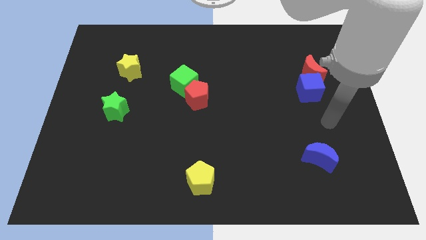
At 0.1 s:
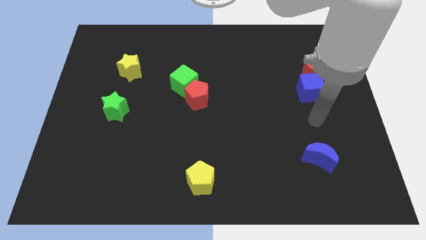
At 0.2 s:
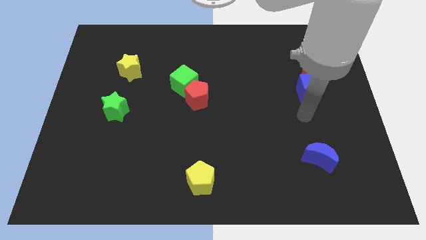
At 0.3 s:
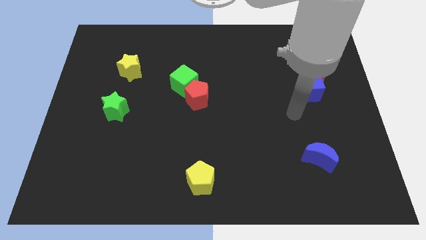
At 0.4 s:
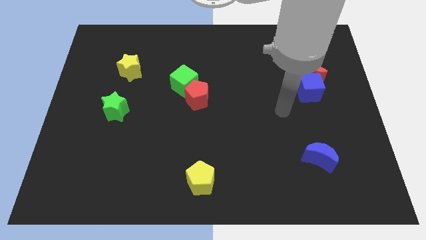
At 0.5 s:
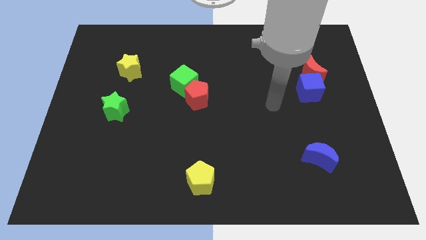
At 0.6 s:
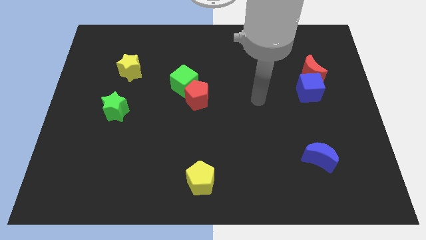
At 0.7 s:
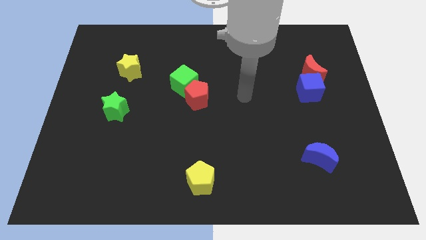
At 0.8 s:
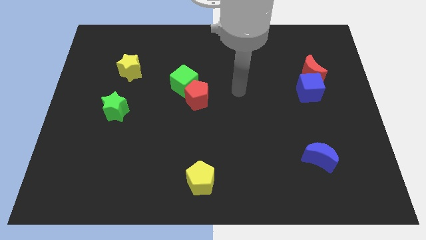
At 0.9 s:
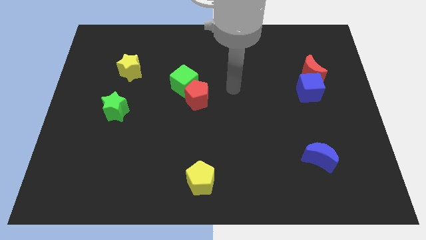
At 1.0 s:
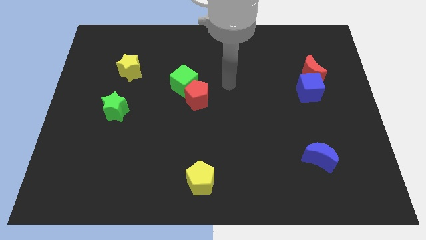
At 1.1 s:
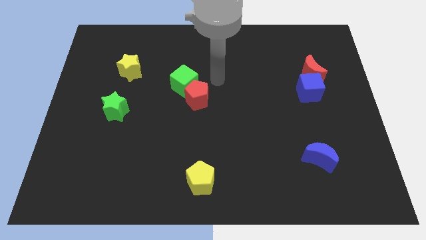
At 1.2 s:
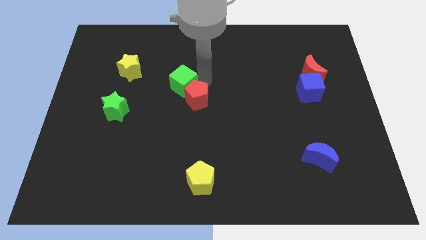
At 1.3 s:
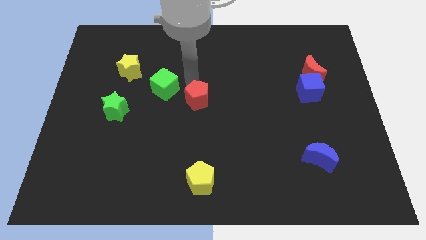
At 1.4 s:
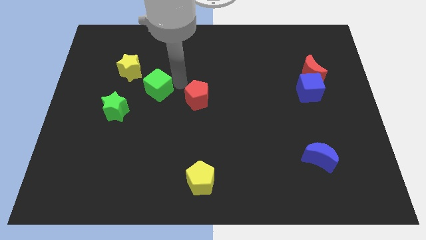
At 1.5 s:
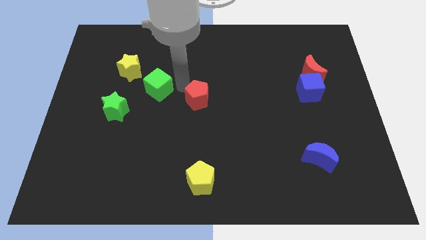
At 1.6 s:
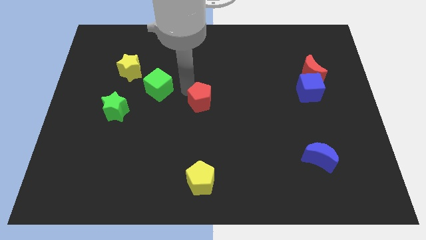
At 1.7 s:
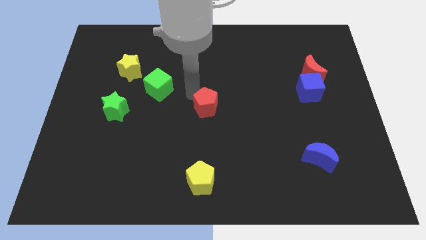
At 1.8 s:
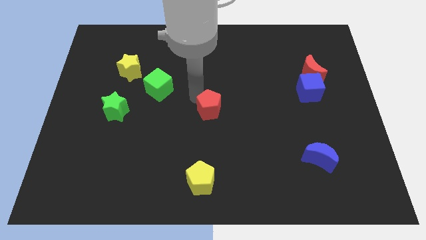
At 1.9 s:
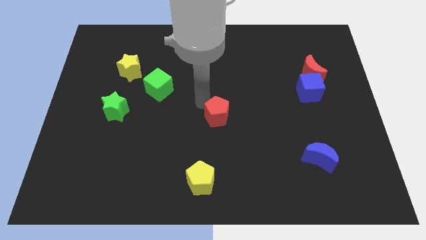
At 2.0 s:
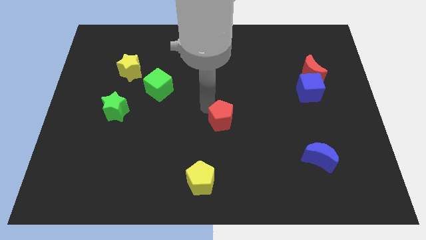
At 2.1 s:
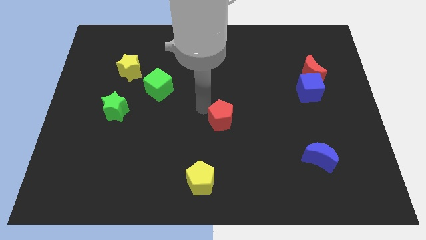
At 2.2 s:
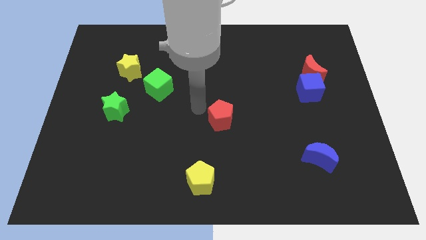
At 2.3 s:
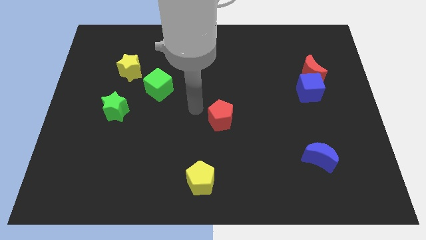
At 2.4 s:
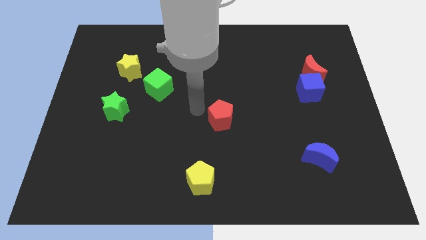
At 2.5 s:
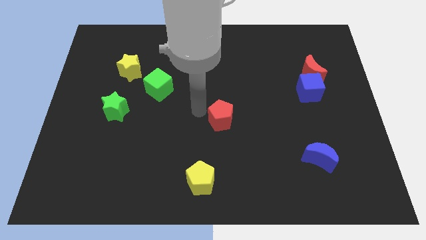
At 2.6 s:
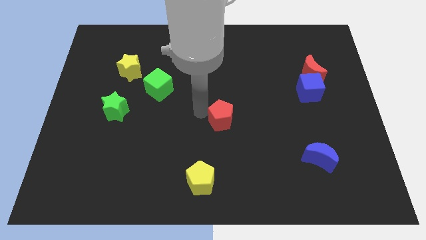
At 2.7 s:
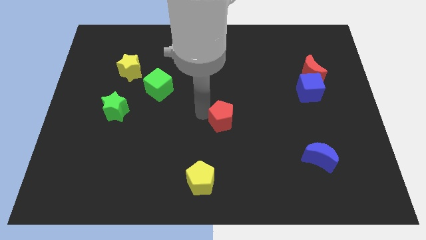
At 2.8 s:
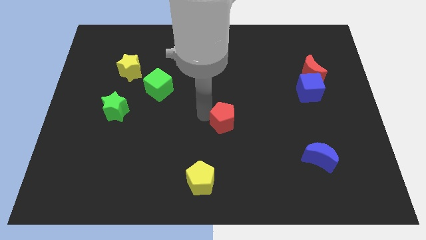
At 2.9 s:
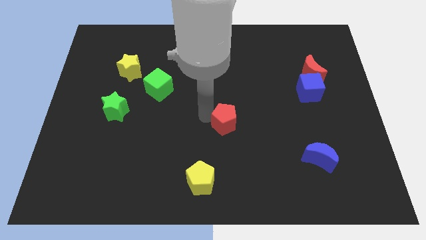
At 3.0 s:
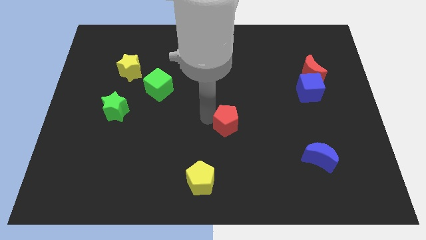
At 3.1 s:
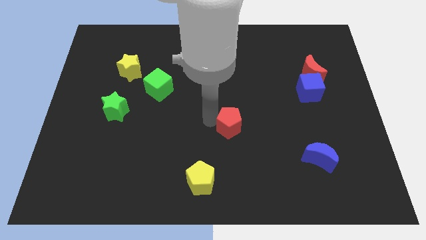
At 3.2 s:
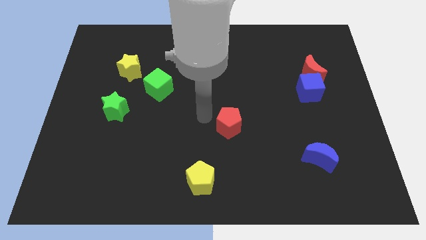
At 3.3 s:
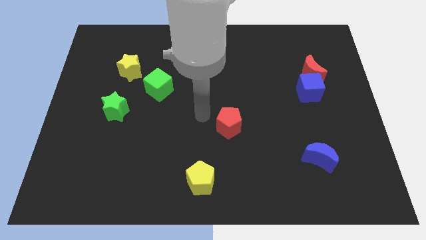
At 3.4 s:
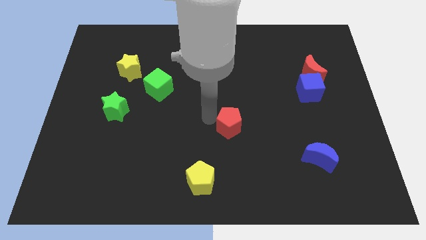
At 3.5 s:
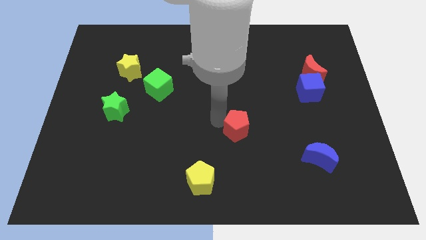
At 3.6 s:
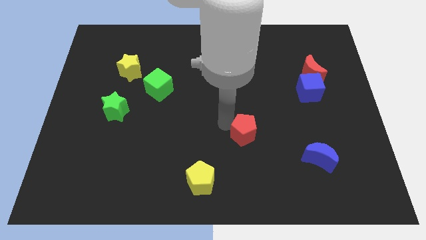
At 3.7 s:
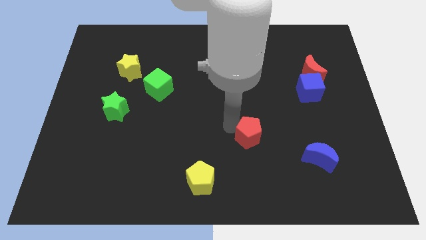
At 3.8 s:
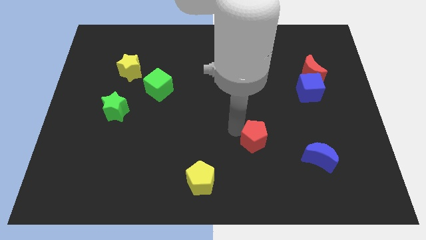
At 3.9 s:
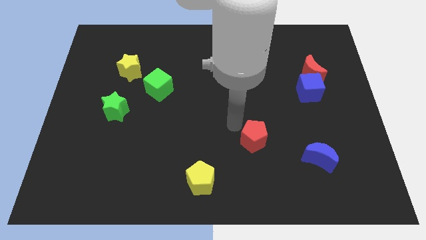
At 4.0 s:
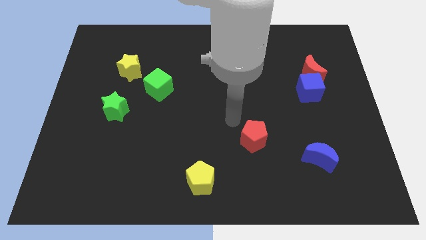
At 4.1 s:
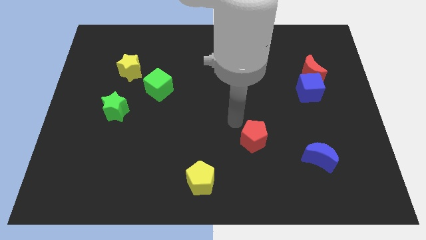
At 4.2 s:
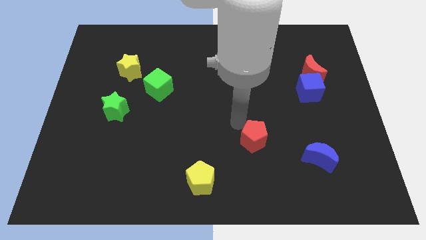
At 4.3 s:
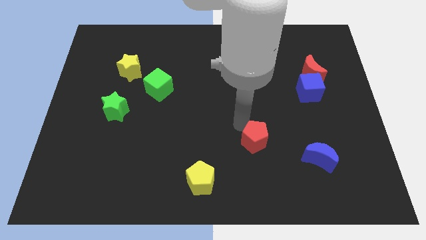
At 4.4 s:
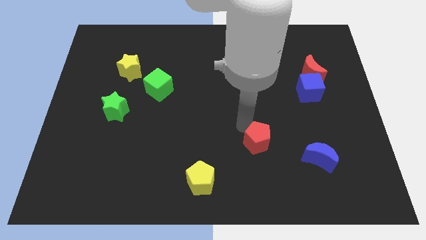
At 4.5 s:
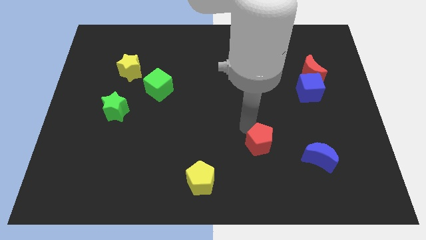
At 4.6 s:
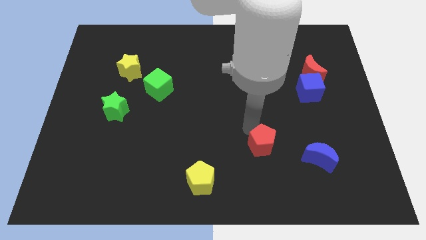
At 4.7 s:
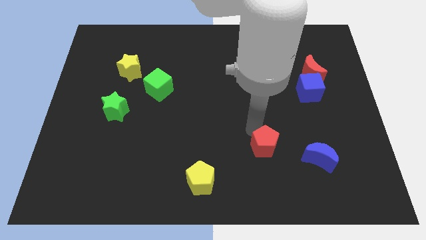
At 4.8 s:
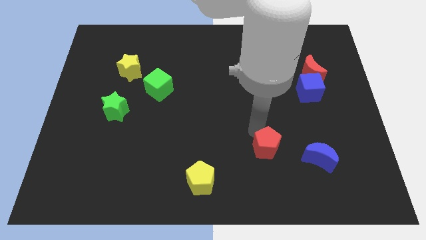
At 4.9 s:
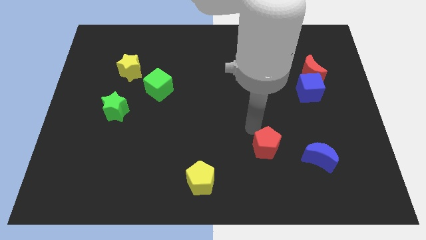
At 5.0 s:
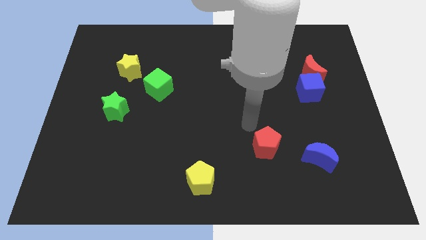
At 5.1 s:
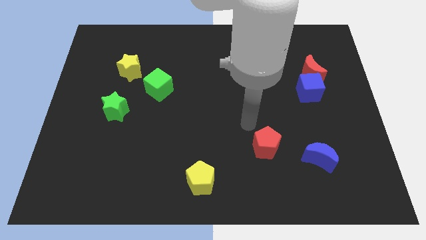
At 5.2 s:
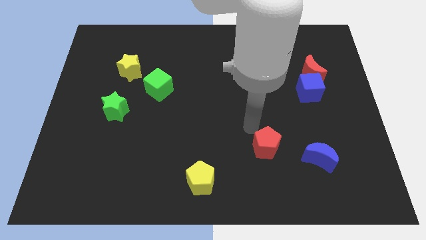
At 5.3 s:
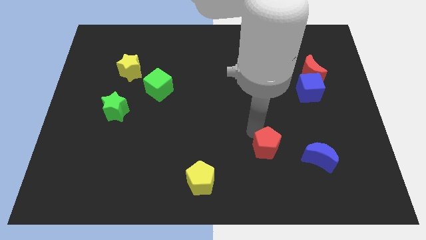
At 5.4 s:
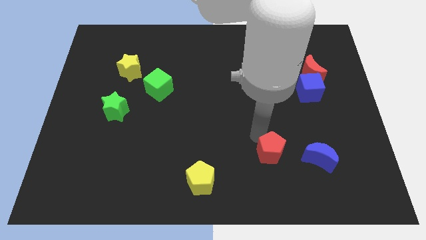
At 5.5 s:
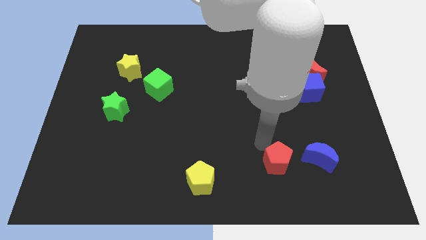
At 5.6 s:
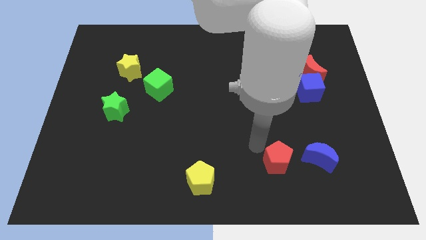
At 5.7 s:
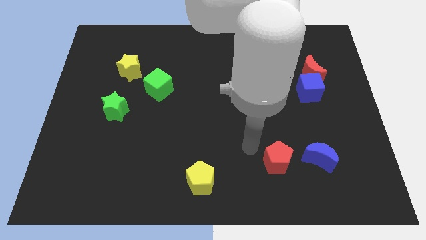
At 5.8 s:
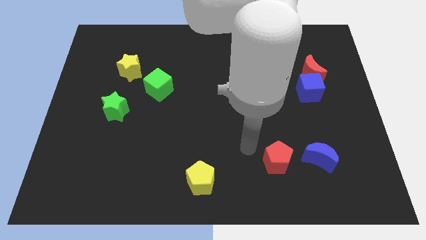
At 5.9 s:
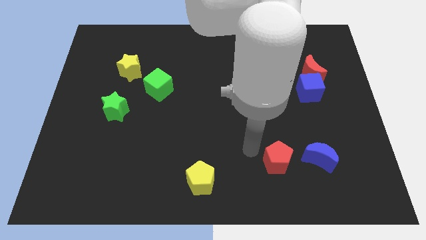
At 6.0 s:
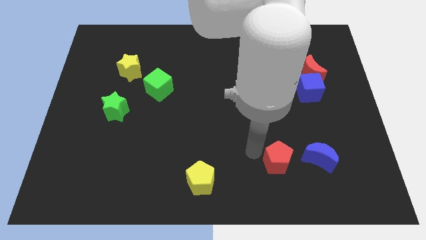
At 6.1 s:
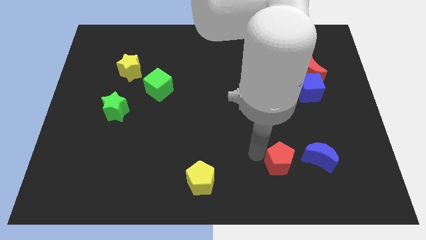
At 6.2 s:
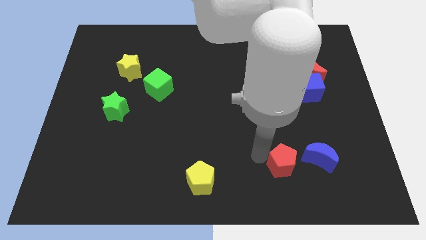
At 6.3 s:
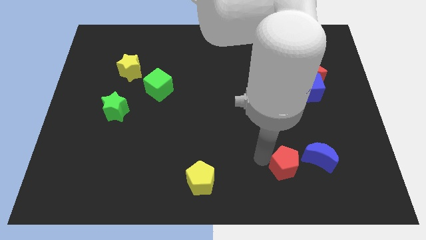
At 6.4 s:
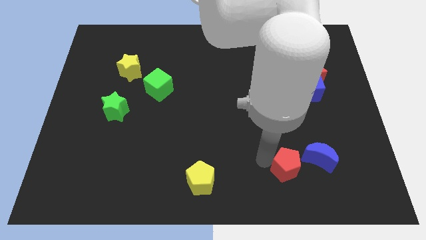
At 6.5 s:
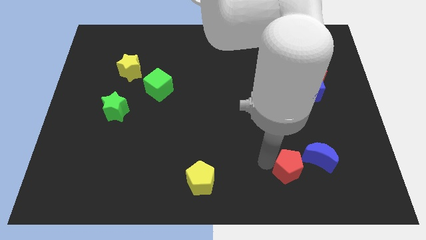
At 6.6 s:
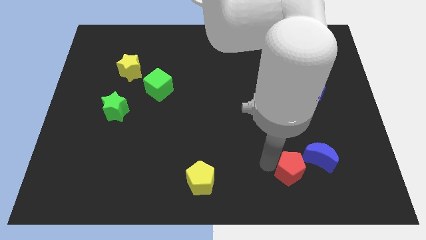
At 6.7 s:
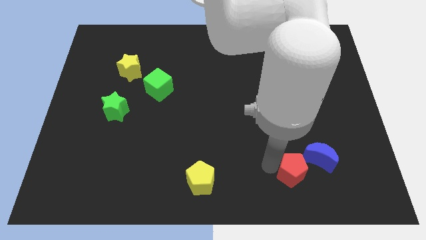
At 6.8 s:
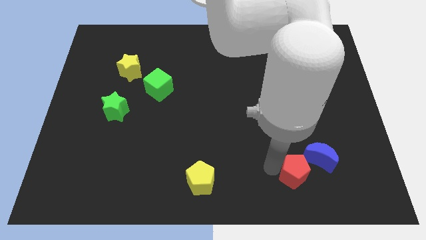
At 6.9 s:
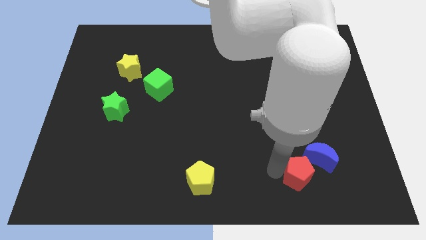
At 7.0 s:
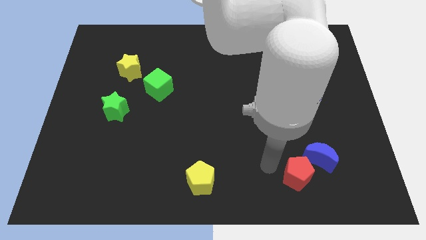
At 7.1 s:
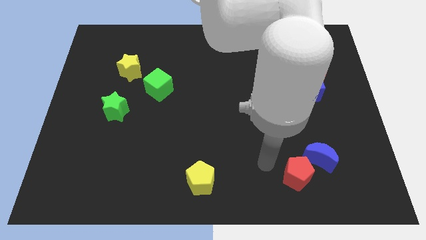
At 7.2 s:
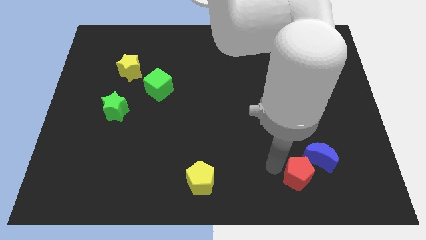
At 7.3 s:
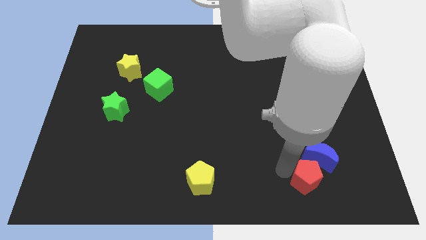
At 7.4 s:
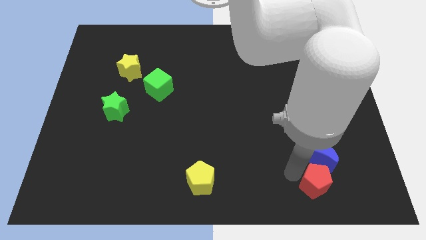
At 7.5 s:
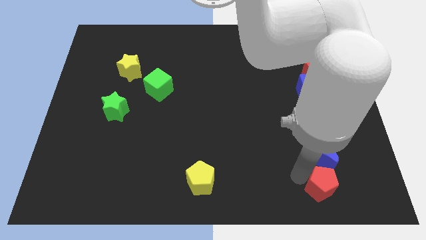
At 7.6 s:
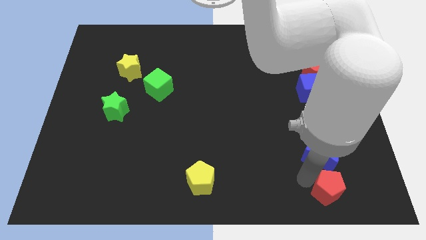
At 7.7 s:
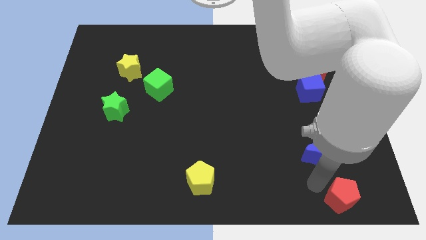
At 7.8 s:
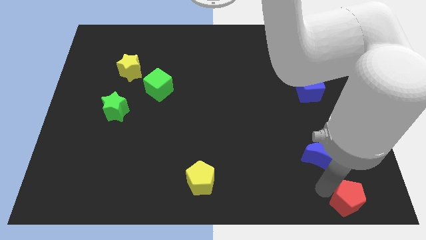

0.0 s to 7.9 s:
push the red pentagon to the bottom right corner
